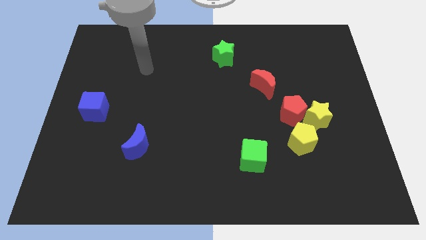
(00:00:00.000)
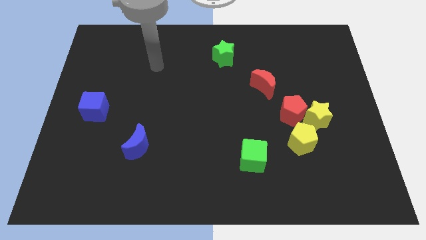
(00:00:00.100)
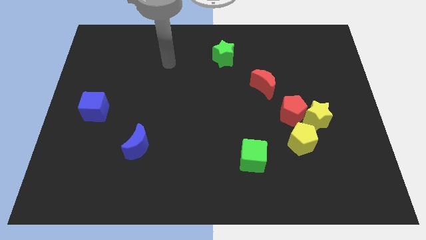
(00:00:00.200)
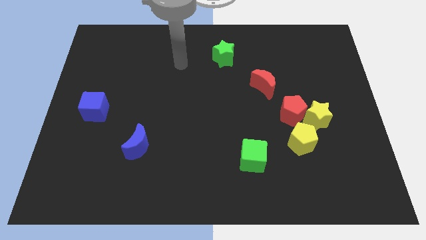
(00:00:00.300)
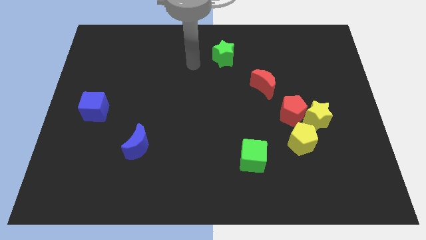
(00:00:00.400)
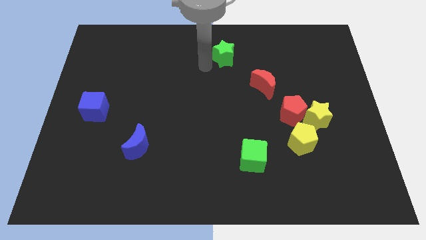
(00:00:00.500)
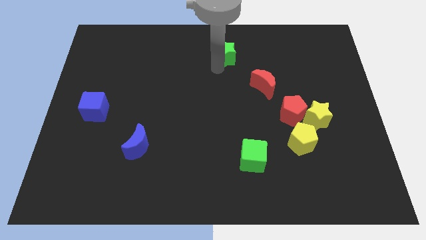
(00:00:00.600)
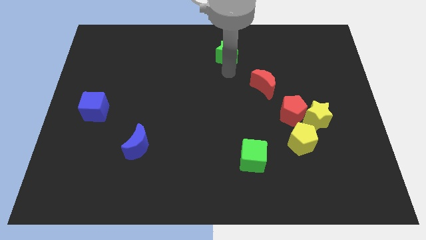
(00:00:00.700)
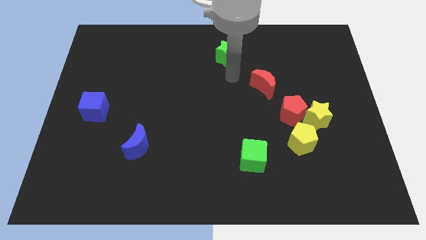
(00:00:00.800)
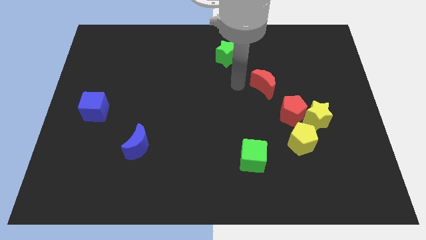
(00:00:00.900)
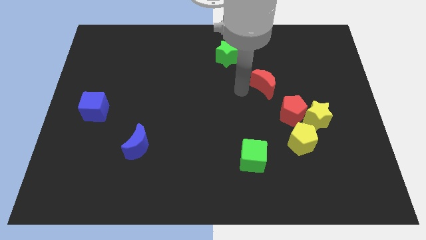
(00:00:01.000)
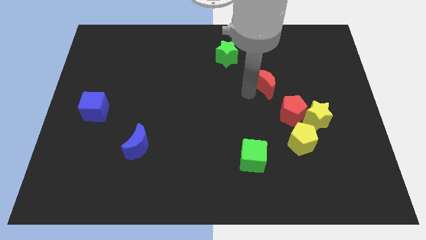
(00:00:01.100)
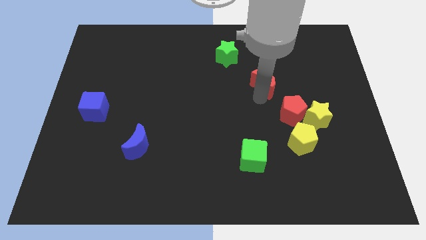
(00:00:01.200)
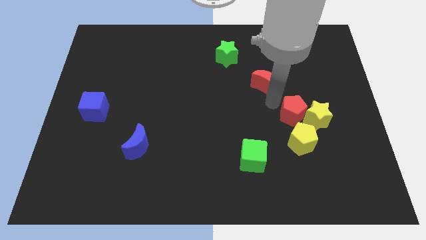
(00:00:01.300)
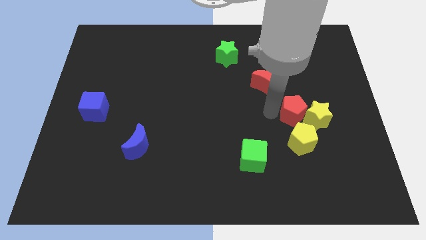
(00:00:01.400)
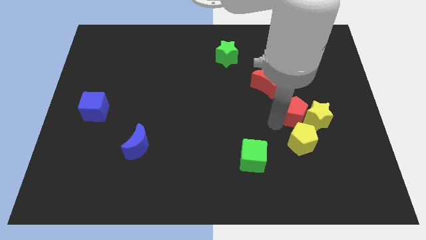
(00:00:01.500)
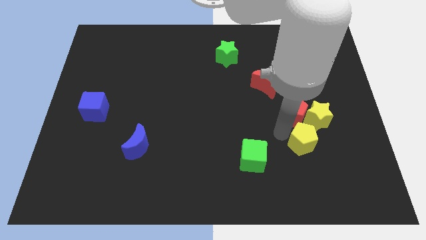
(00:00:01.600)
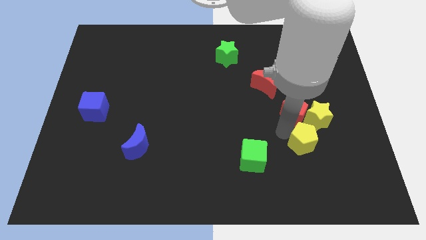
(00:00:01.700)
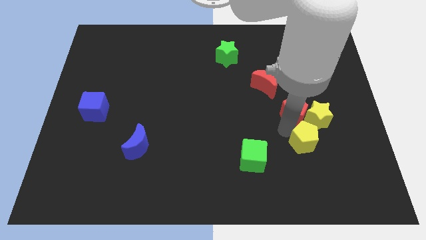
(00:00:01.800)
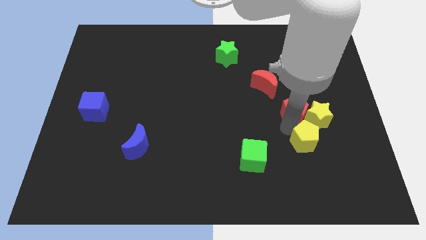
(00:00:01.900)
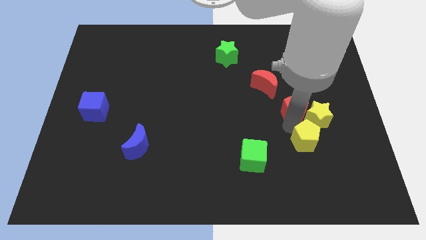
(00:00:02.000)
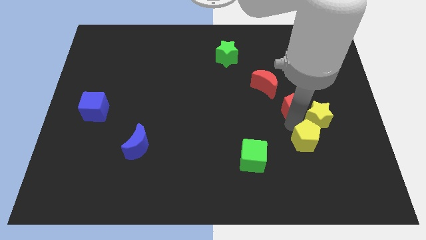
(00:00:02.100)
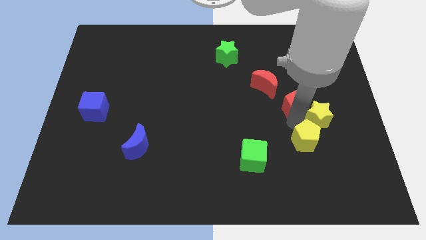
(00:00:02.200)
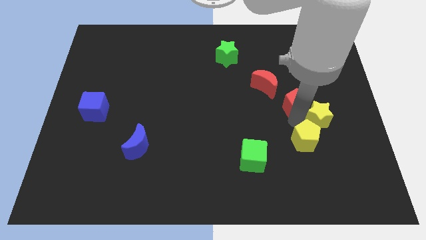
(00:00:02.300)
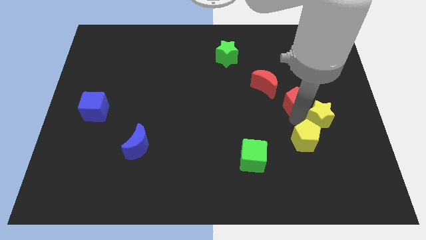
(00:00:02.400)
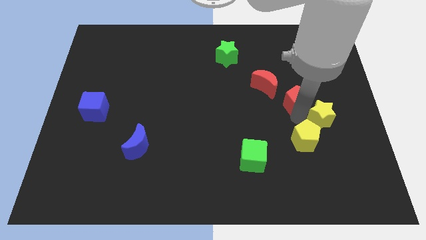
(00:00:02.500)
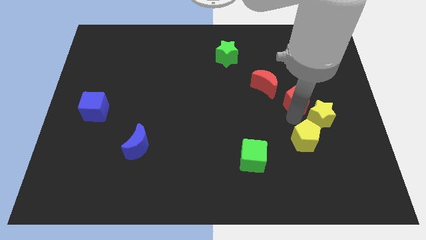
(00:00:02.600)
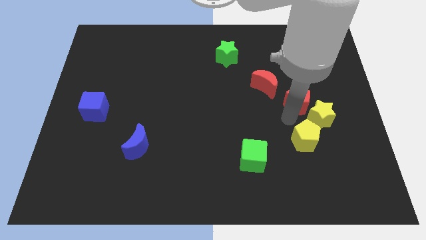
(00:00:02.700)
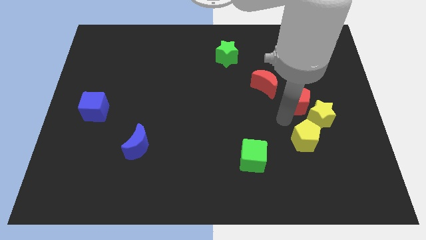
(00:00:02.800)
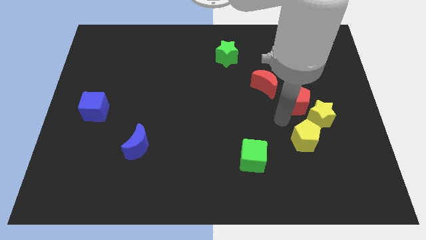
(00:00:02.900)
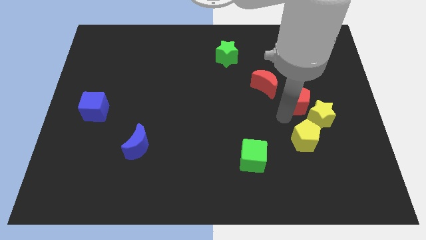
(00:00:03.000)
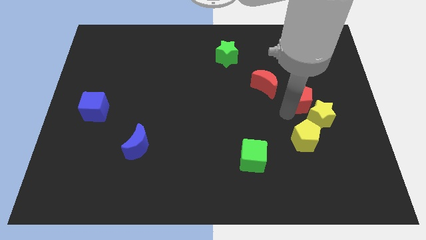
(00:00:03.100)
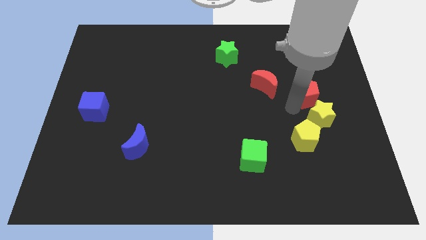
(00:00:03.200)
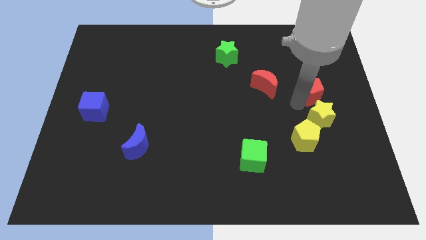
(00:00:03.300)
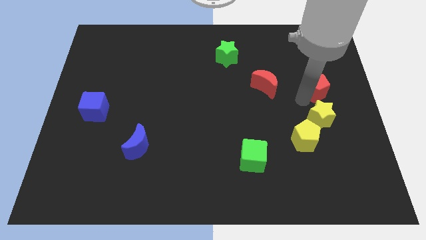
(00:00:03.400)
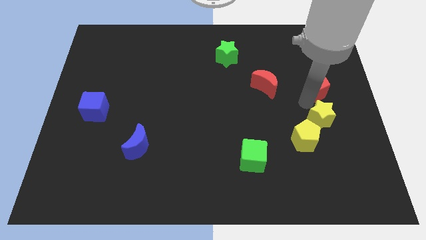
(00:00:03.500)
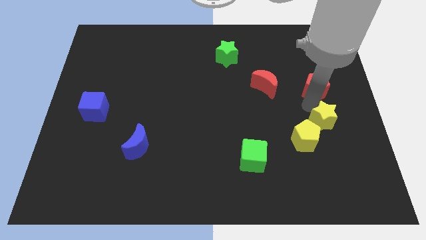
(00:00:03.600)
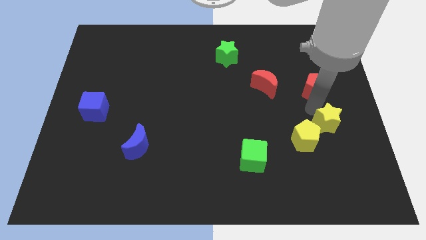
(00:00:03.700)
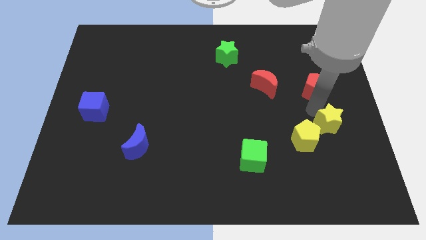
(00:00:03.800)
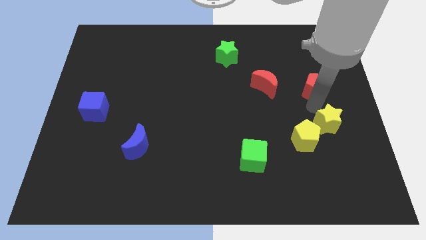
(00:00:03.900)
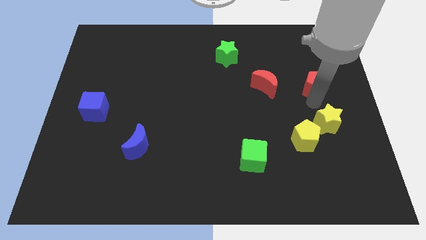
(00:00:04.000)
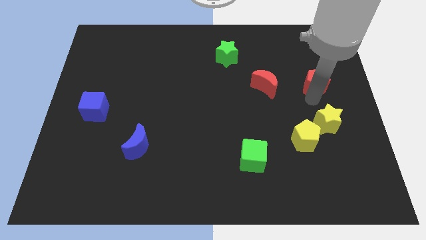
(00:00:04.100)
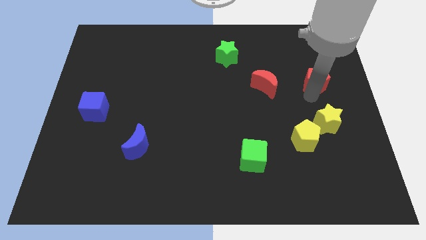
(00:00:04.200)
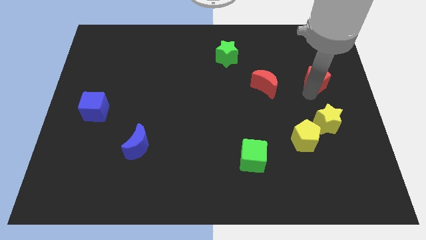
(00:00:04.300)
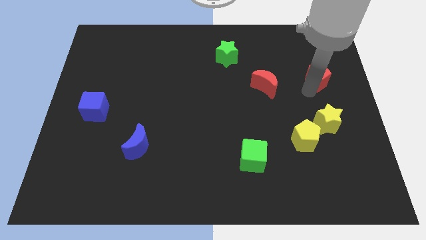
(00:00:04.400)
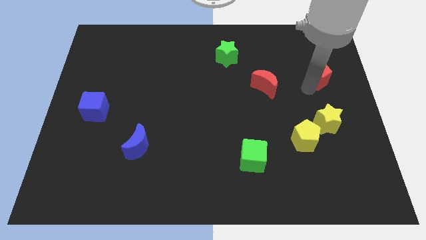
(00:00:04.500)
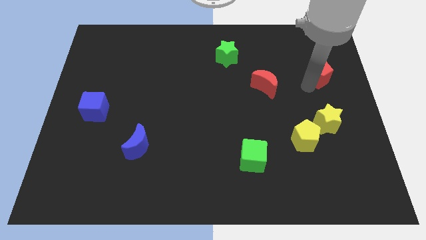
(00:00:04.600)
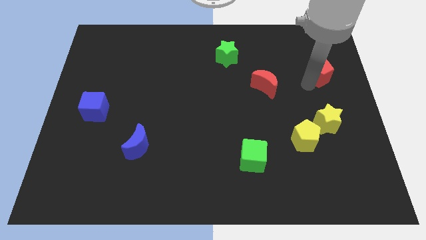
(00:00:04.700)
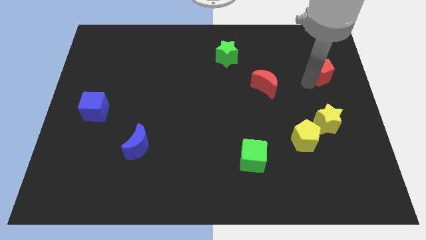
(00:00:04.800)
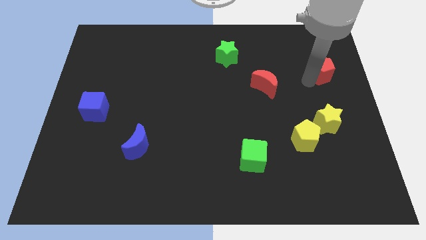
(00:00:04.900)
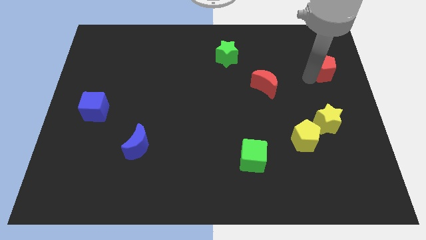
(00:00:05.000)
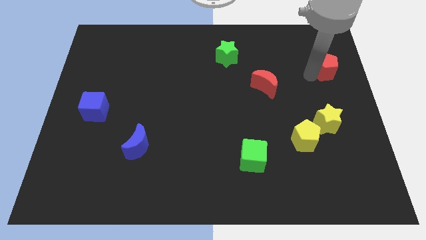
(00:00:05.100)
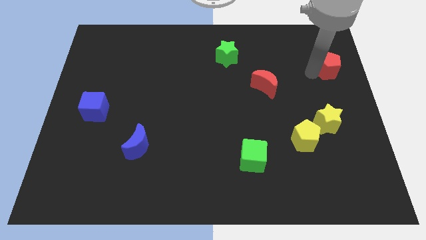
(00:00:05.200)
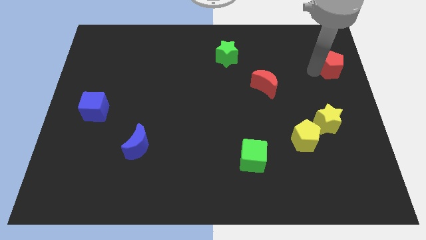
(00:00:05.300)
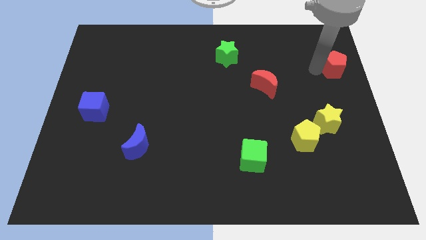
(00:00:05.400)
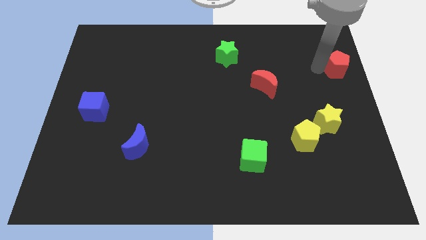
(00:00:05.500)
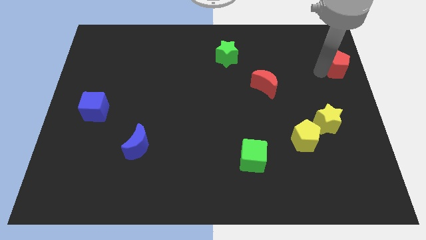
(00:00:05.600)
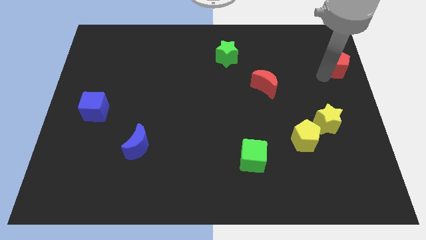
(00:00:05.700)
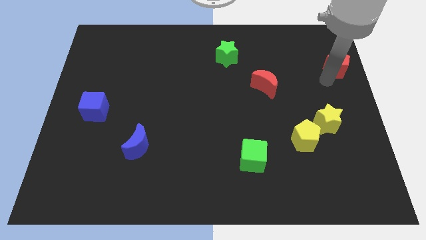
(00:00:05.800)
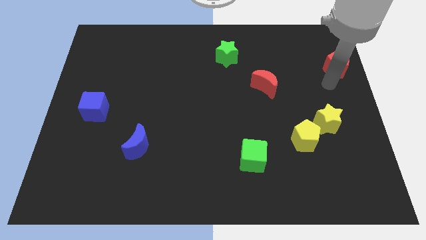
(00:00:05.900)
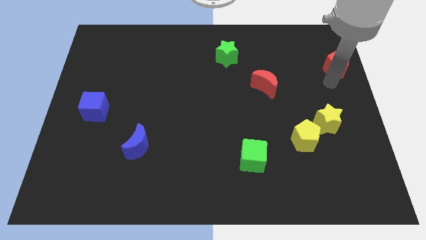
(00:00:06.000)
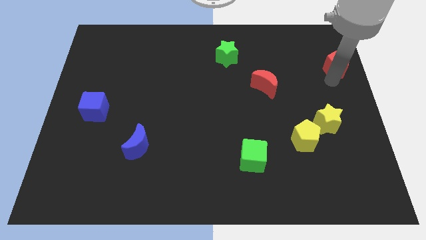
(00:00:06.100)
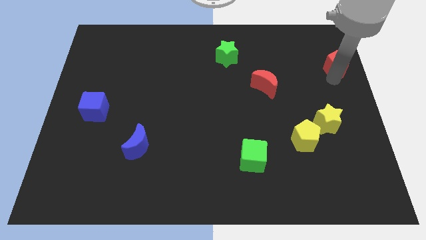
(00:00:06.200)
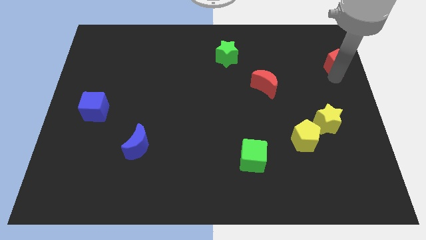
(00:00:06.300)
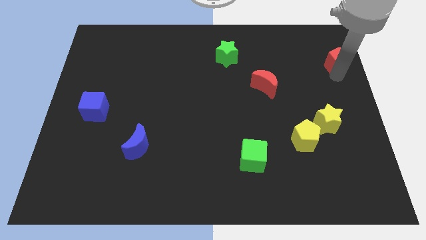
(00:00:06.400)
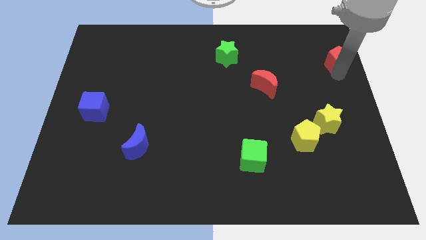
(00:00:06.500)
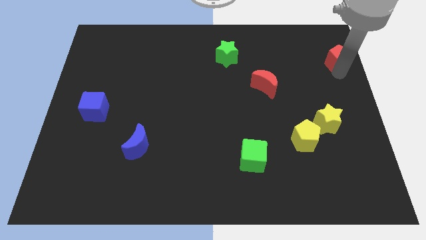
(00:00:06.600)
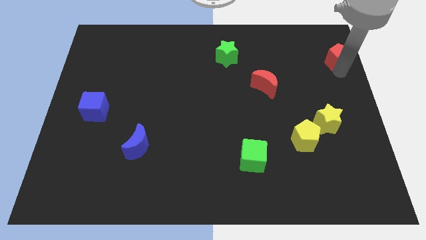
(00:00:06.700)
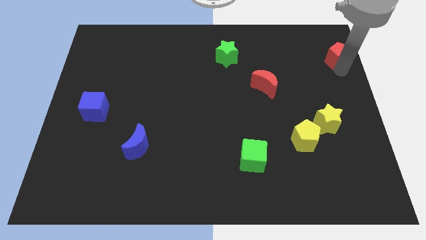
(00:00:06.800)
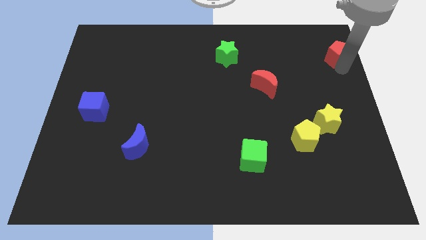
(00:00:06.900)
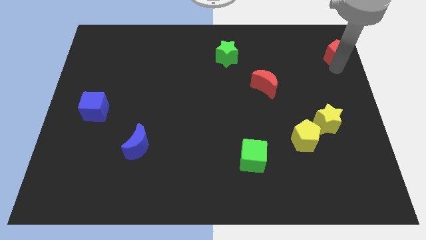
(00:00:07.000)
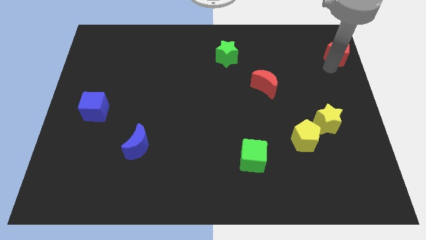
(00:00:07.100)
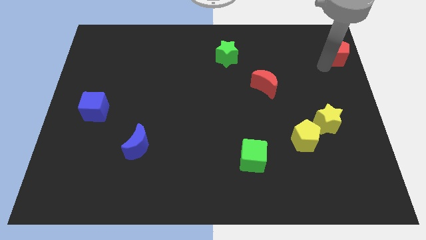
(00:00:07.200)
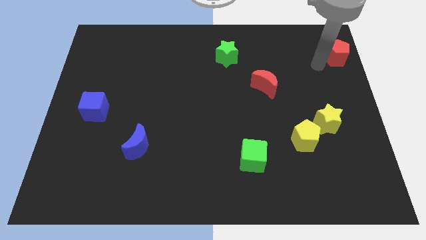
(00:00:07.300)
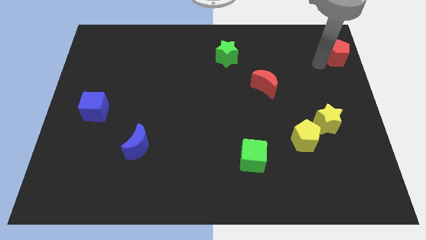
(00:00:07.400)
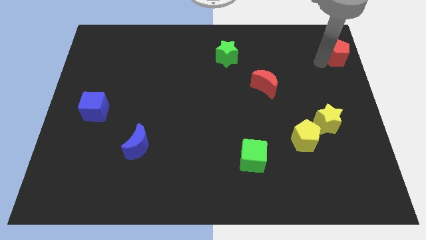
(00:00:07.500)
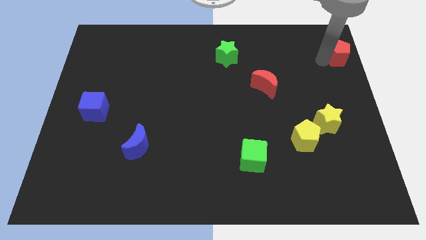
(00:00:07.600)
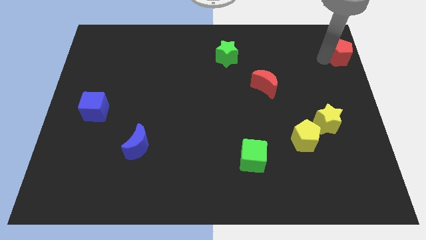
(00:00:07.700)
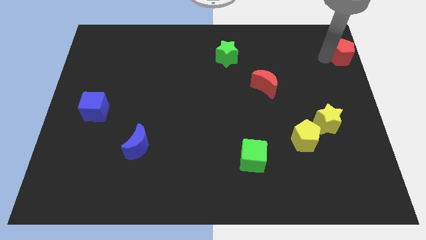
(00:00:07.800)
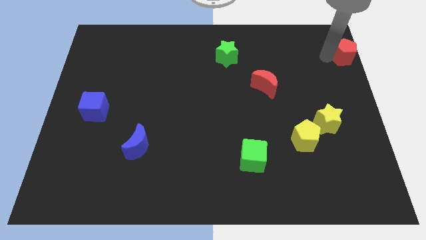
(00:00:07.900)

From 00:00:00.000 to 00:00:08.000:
push the red pentagon to the top right of the board
